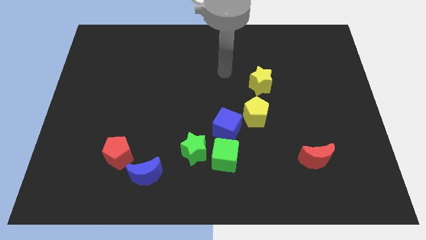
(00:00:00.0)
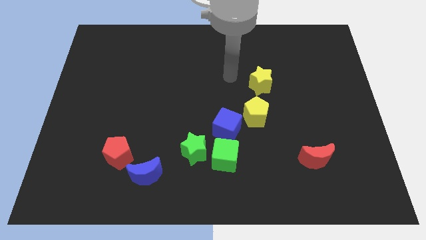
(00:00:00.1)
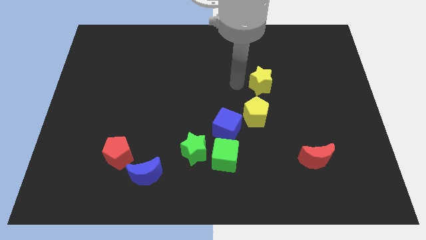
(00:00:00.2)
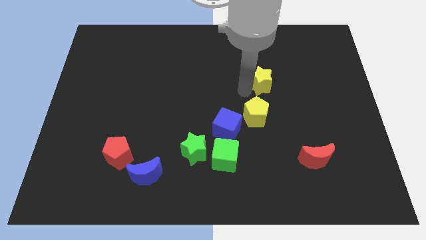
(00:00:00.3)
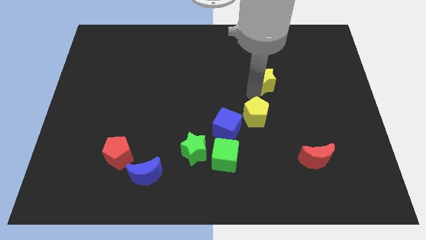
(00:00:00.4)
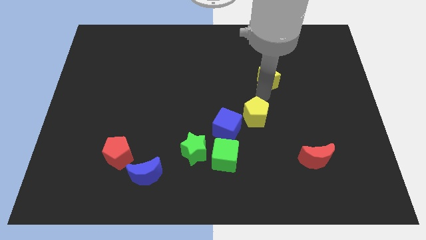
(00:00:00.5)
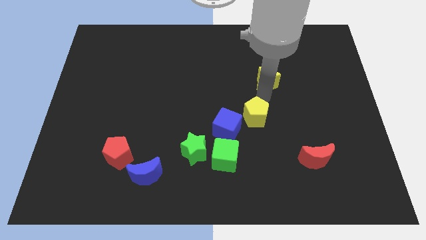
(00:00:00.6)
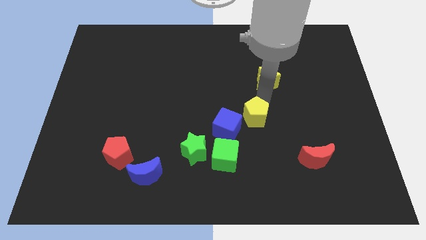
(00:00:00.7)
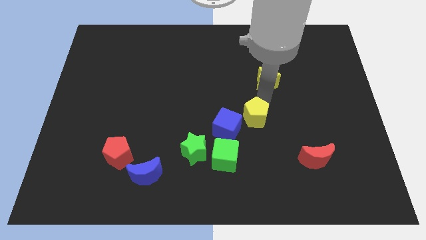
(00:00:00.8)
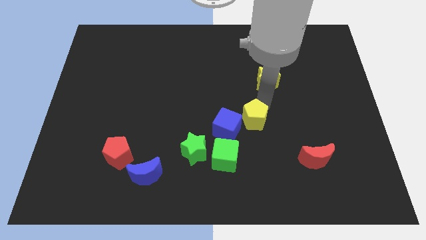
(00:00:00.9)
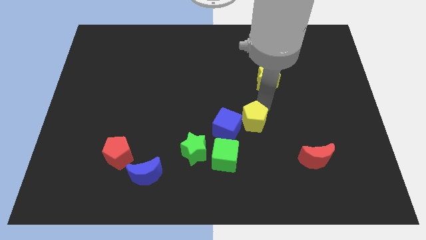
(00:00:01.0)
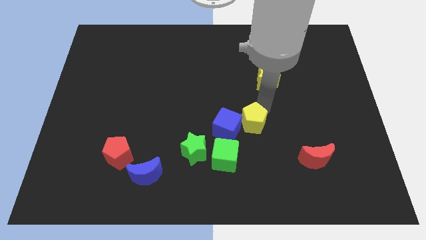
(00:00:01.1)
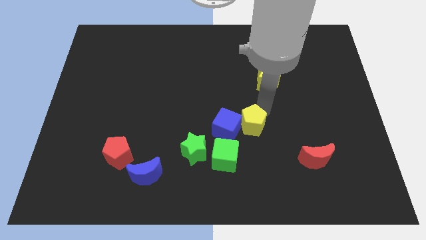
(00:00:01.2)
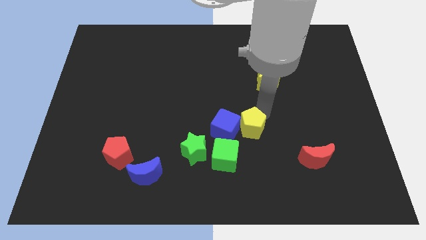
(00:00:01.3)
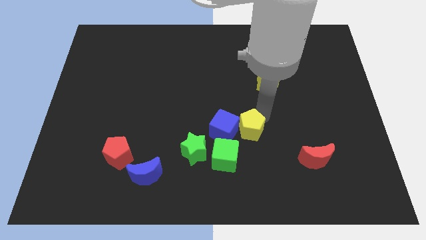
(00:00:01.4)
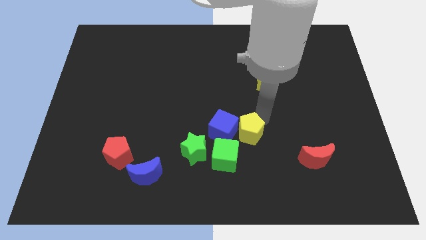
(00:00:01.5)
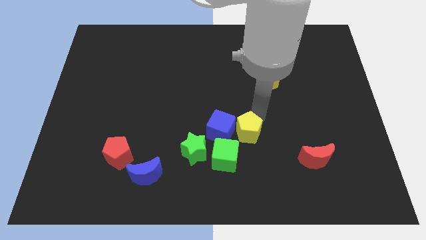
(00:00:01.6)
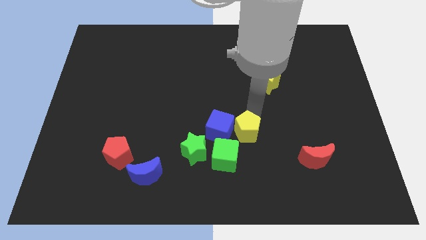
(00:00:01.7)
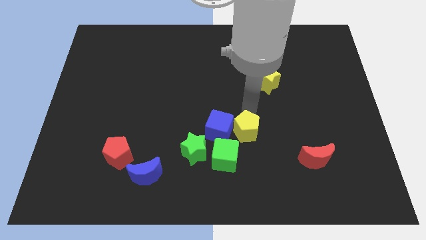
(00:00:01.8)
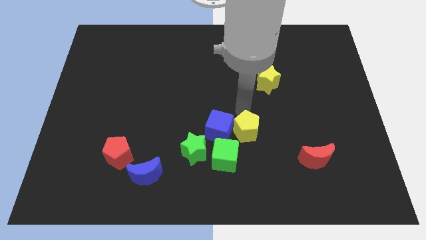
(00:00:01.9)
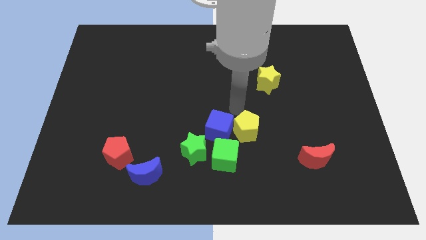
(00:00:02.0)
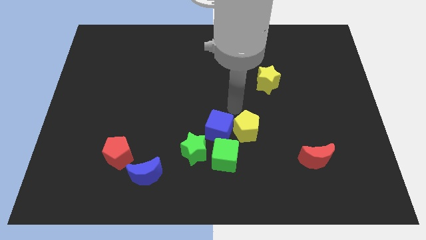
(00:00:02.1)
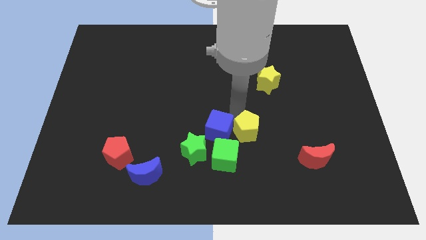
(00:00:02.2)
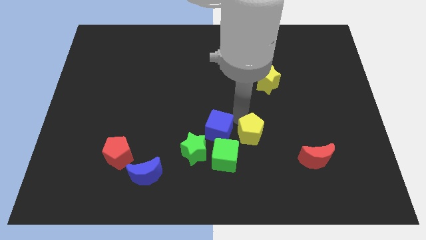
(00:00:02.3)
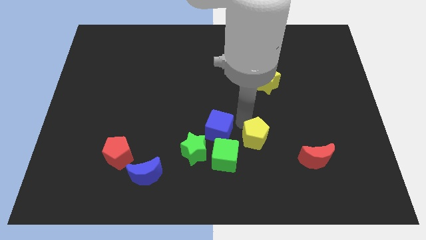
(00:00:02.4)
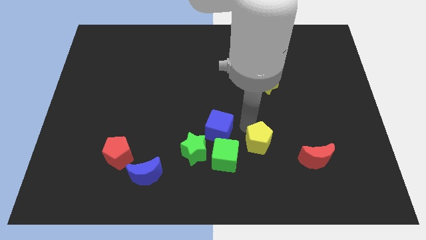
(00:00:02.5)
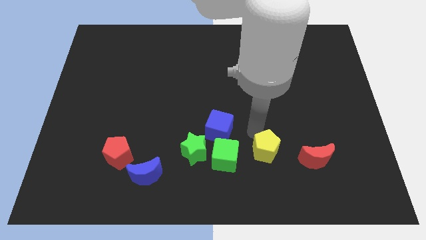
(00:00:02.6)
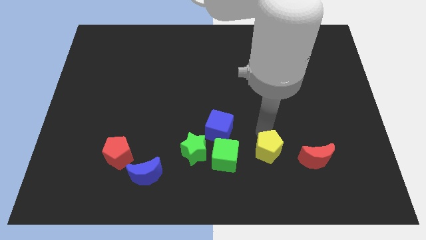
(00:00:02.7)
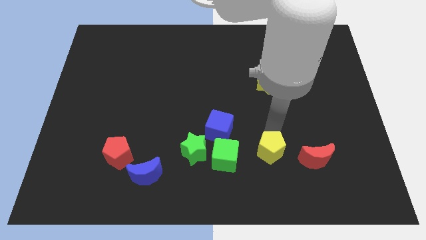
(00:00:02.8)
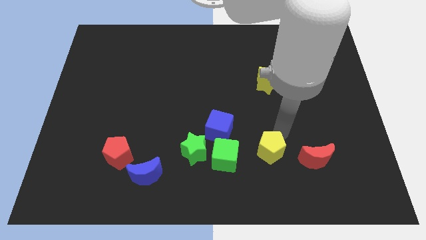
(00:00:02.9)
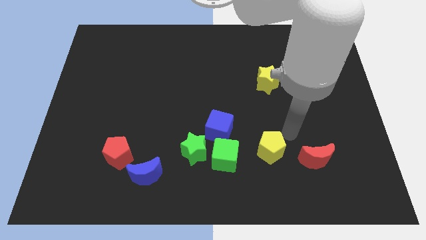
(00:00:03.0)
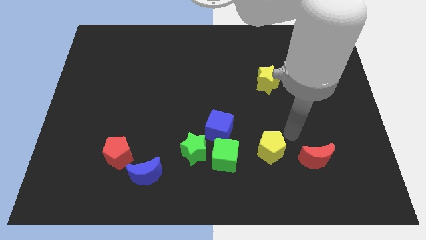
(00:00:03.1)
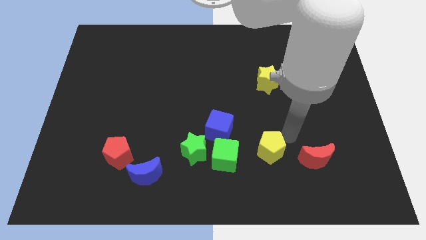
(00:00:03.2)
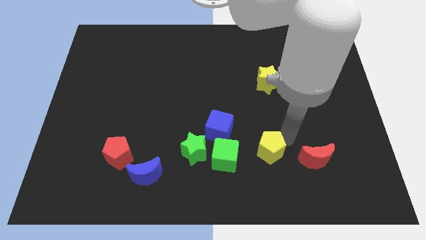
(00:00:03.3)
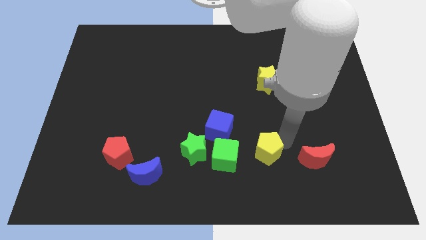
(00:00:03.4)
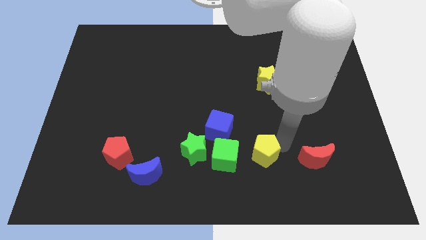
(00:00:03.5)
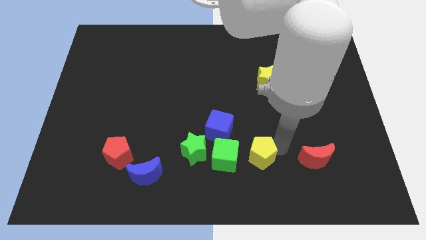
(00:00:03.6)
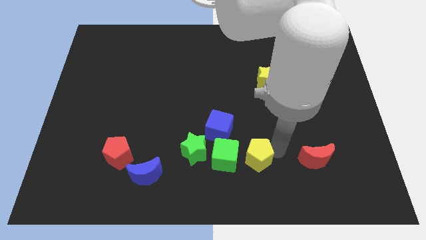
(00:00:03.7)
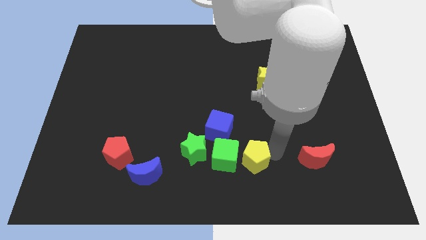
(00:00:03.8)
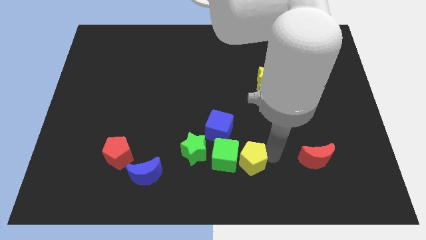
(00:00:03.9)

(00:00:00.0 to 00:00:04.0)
slightly slide the yellow pentagon downwards and left

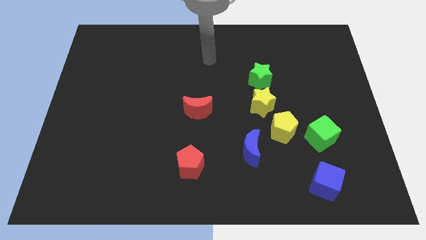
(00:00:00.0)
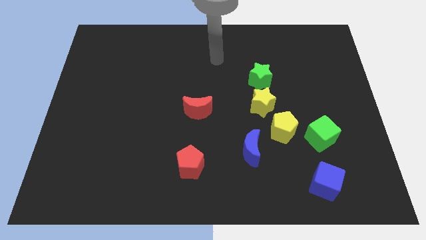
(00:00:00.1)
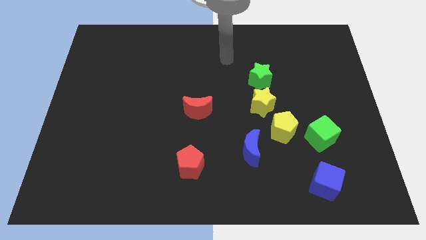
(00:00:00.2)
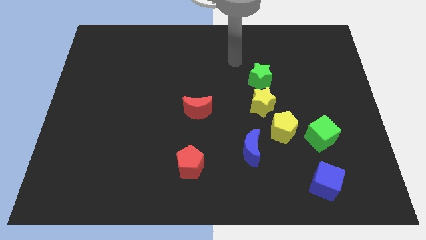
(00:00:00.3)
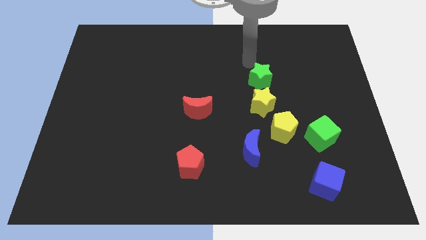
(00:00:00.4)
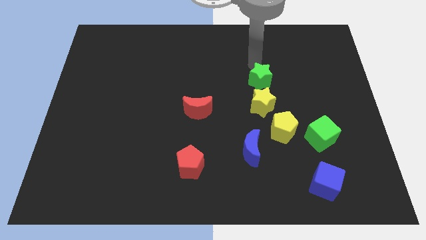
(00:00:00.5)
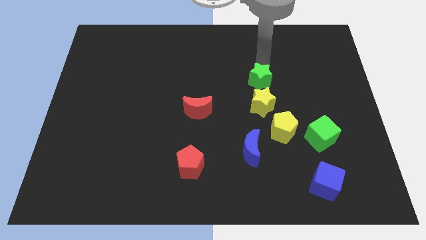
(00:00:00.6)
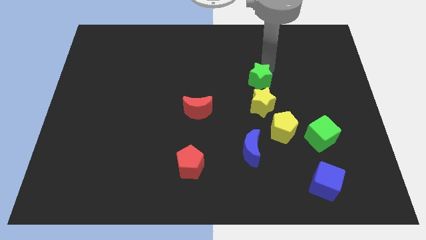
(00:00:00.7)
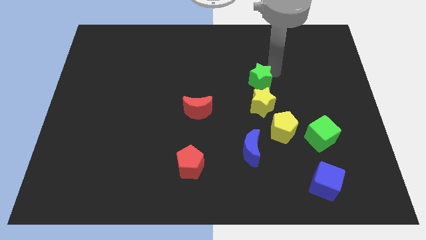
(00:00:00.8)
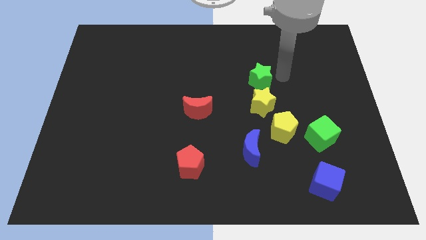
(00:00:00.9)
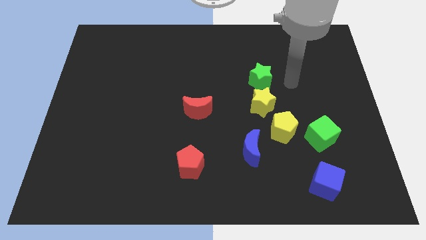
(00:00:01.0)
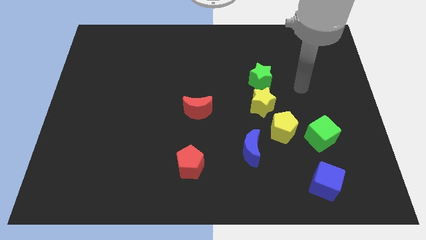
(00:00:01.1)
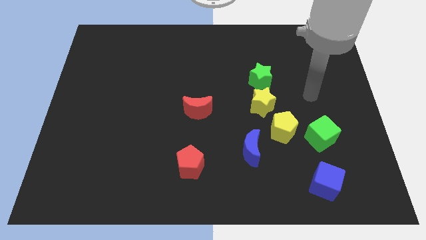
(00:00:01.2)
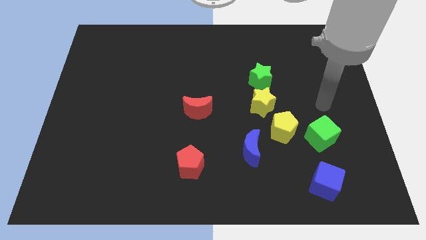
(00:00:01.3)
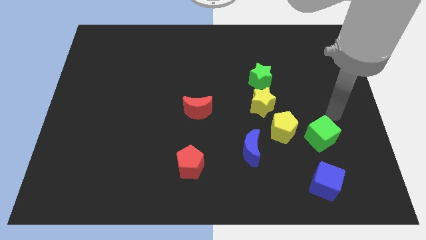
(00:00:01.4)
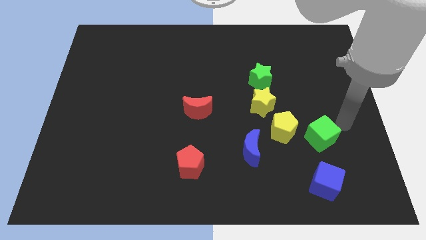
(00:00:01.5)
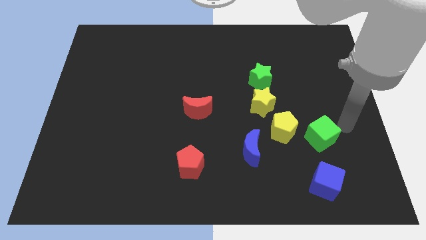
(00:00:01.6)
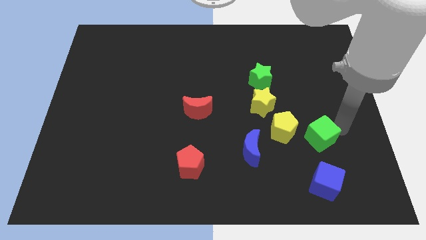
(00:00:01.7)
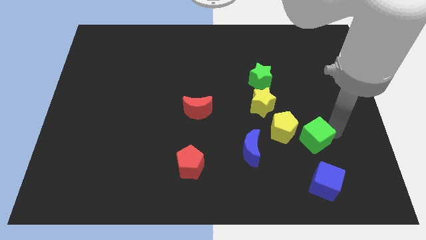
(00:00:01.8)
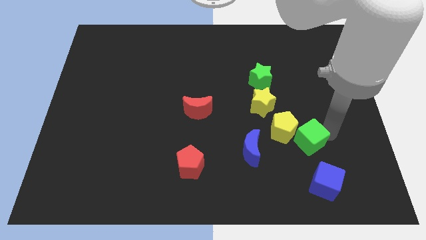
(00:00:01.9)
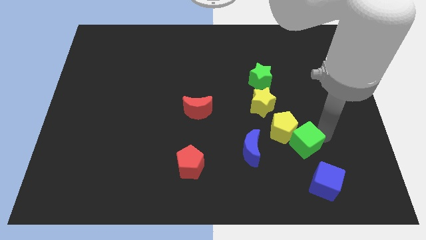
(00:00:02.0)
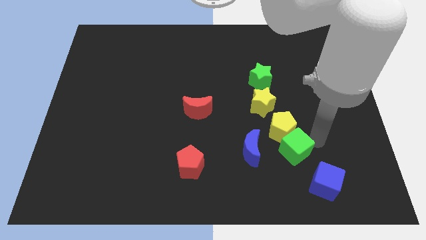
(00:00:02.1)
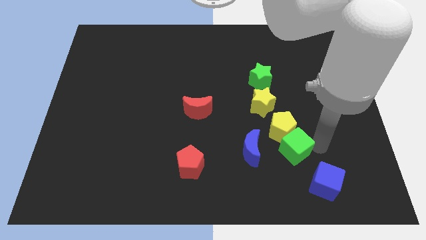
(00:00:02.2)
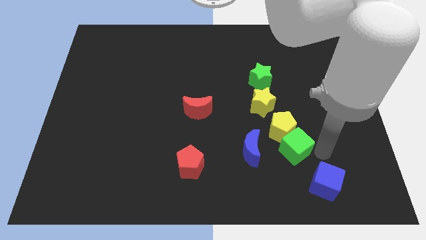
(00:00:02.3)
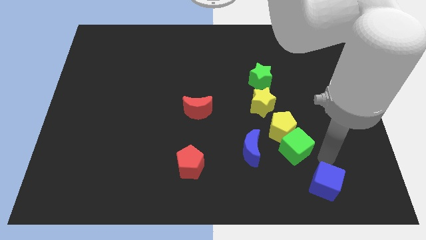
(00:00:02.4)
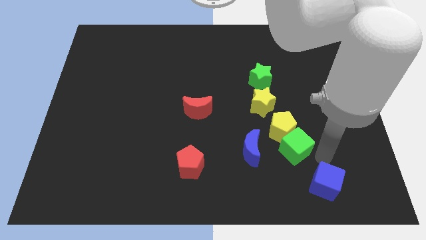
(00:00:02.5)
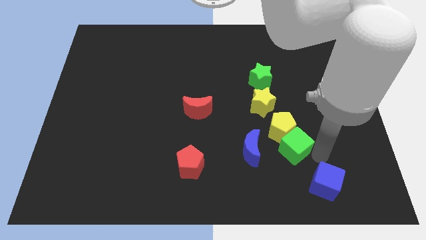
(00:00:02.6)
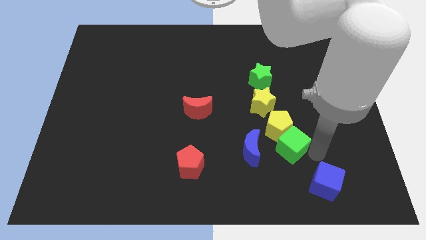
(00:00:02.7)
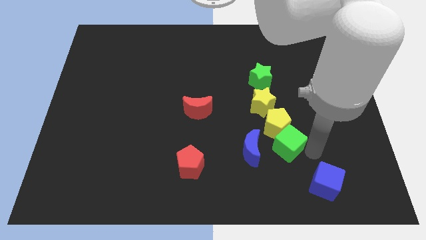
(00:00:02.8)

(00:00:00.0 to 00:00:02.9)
slide the green cube a bit left

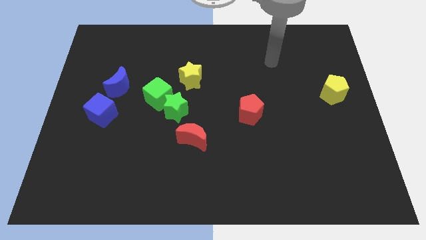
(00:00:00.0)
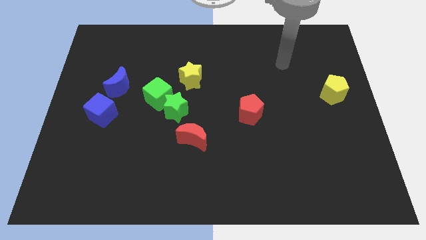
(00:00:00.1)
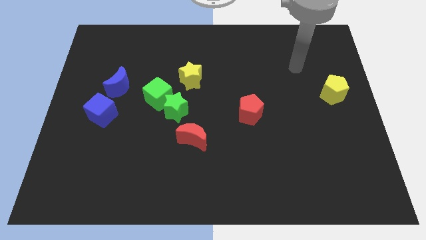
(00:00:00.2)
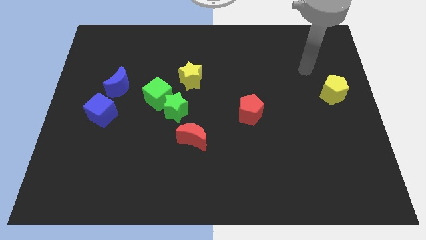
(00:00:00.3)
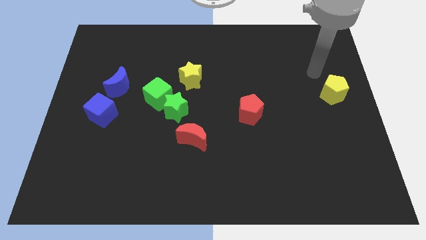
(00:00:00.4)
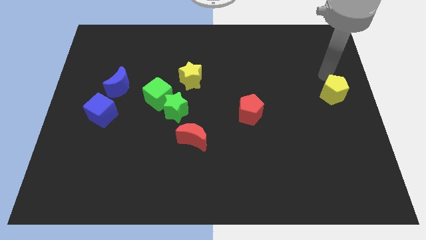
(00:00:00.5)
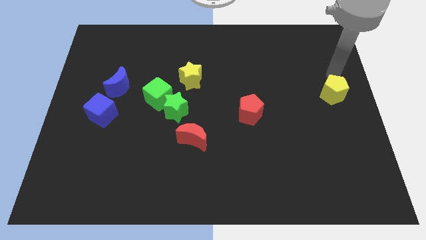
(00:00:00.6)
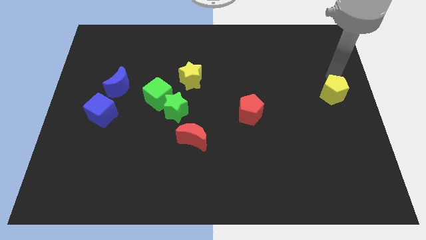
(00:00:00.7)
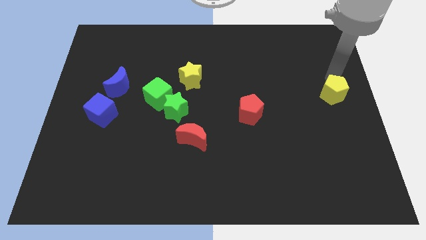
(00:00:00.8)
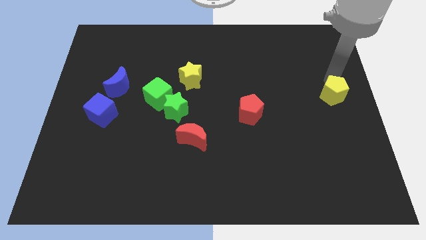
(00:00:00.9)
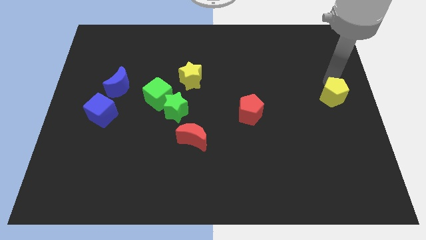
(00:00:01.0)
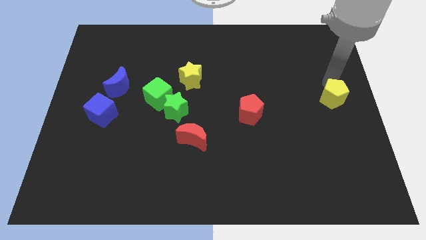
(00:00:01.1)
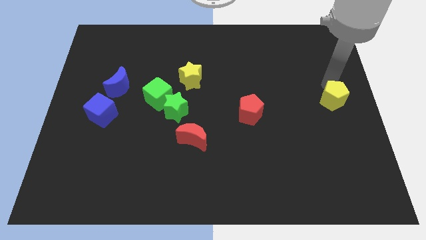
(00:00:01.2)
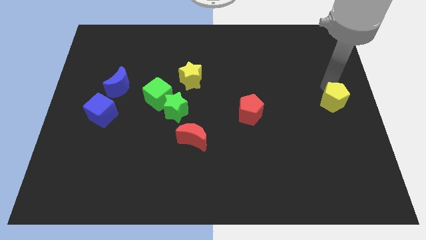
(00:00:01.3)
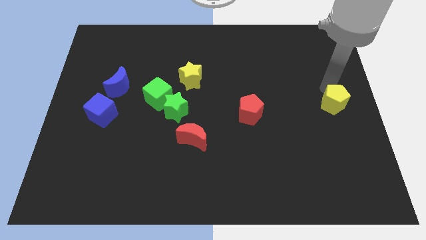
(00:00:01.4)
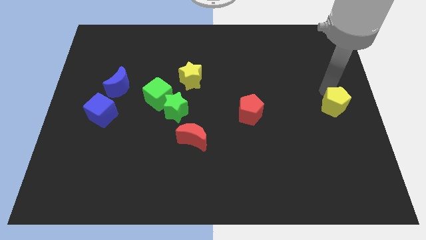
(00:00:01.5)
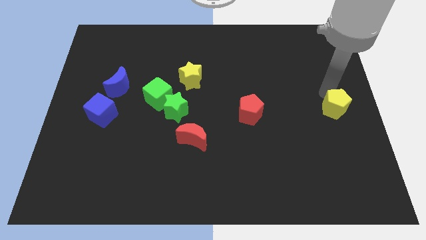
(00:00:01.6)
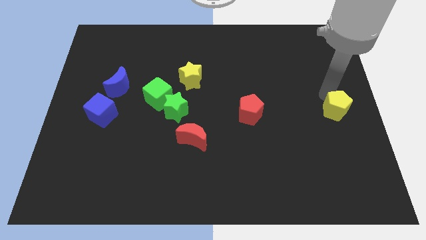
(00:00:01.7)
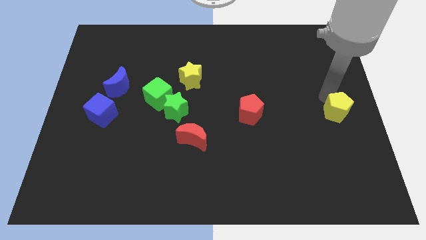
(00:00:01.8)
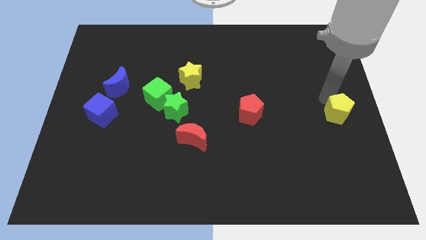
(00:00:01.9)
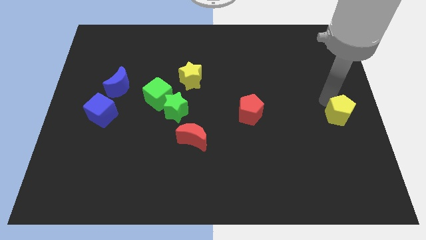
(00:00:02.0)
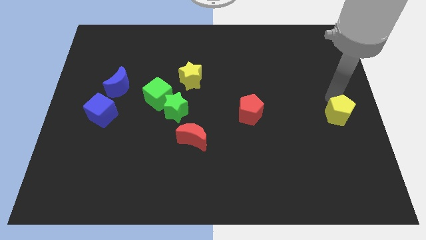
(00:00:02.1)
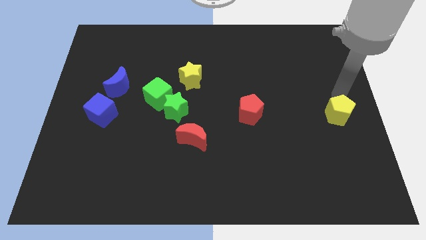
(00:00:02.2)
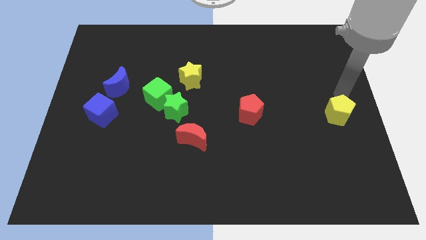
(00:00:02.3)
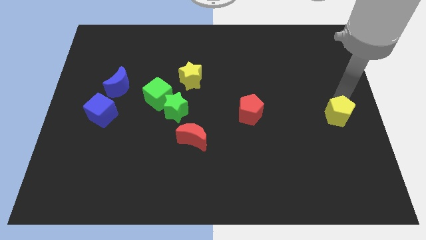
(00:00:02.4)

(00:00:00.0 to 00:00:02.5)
slightly move the yellow pentagon downwards
